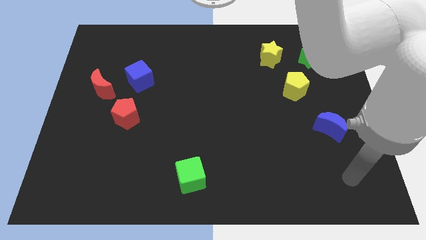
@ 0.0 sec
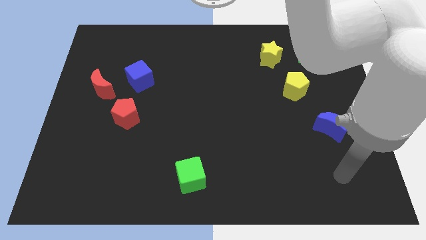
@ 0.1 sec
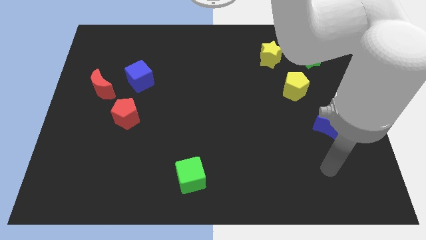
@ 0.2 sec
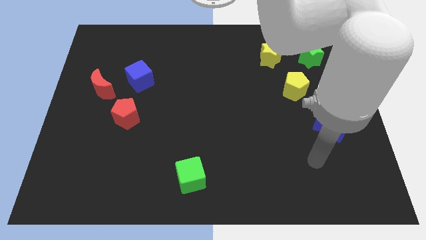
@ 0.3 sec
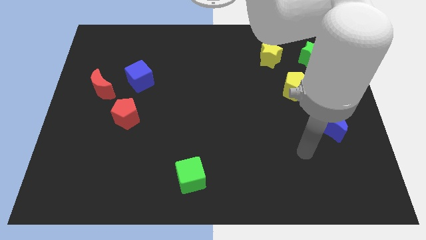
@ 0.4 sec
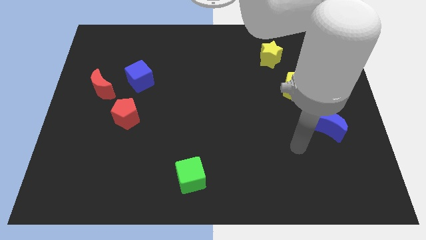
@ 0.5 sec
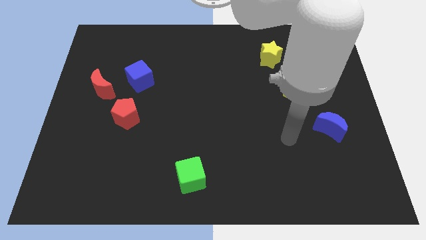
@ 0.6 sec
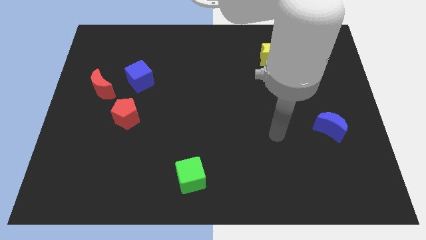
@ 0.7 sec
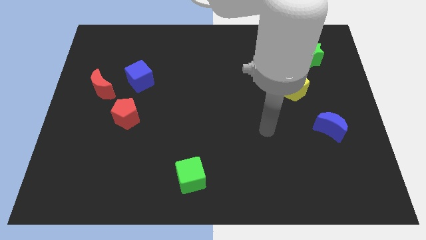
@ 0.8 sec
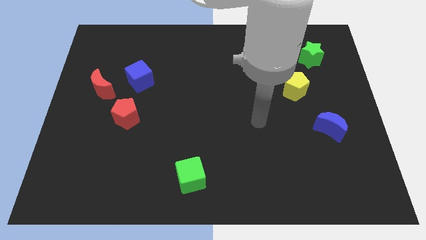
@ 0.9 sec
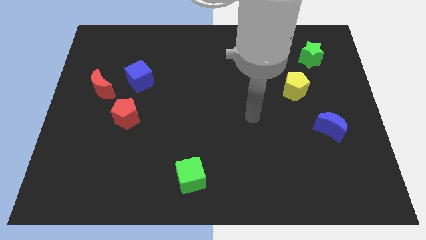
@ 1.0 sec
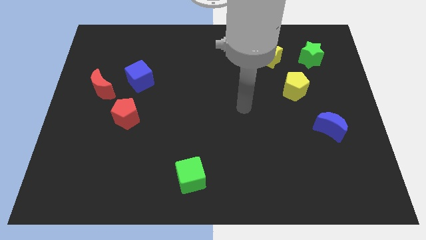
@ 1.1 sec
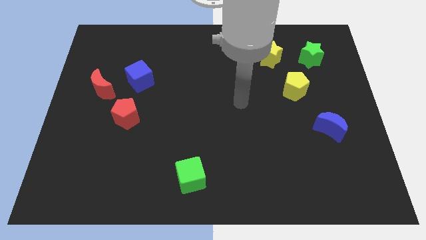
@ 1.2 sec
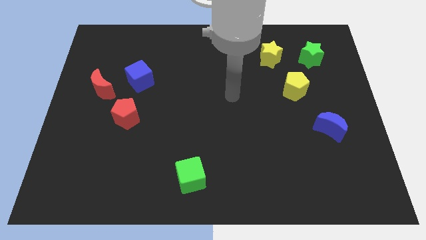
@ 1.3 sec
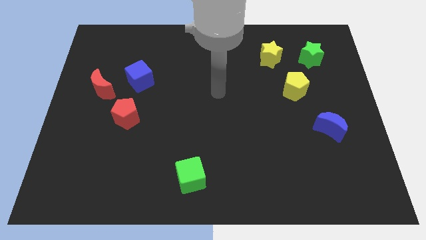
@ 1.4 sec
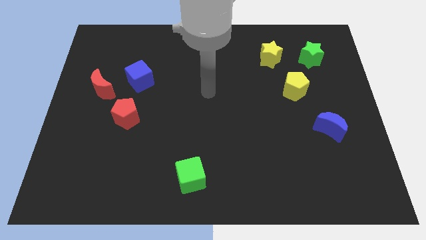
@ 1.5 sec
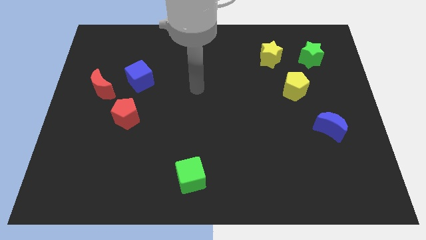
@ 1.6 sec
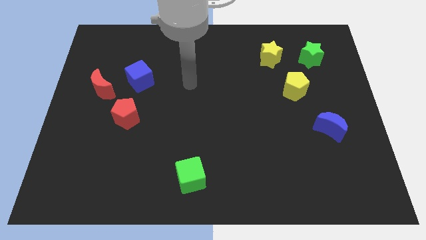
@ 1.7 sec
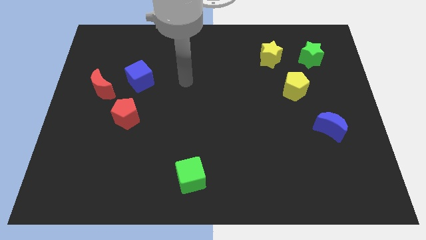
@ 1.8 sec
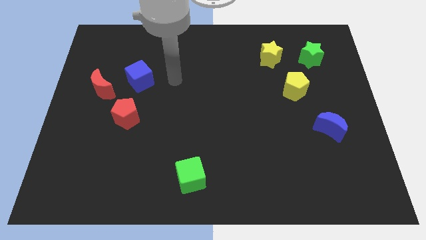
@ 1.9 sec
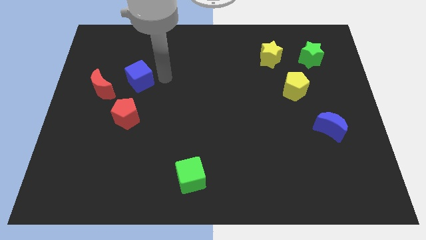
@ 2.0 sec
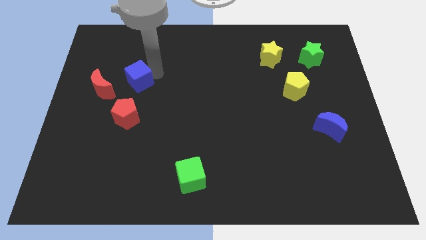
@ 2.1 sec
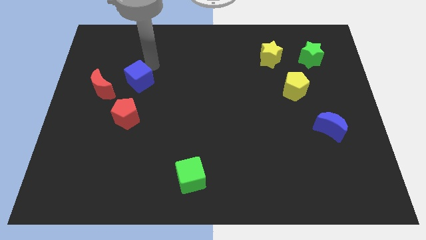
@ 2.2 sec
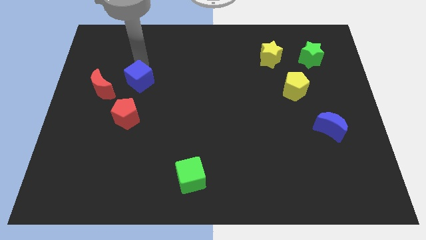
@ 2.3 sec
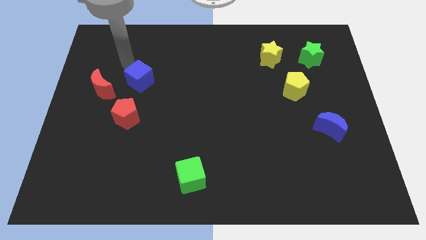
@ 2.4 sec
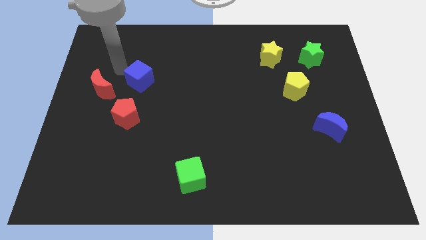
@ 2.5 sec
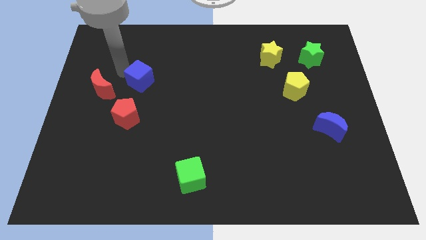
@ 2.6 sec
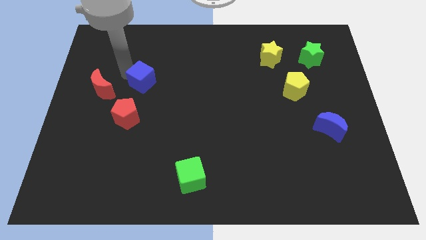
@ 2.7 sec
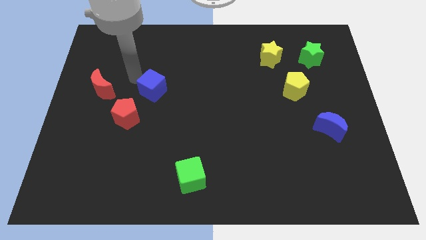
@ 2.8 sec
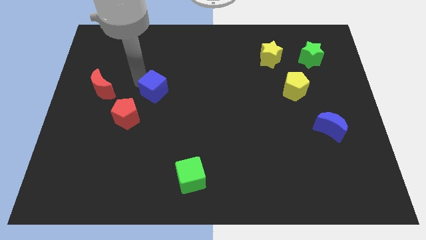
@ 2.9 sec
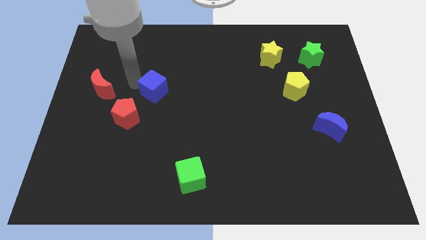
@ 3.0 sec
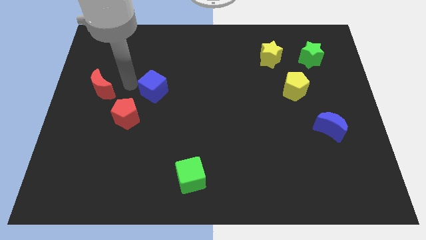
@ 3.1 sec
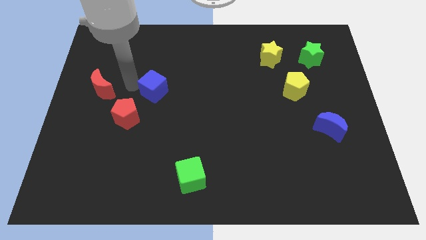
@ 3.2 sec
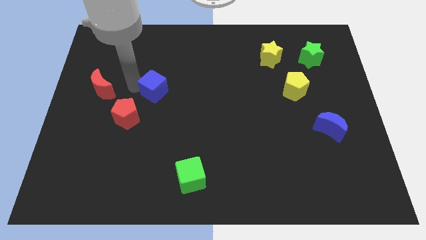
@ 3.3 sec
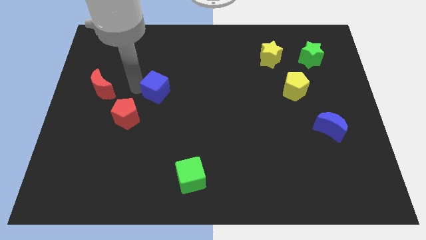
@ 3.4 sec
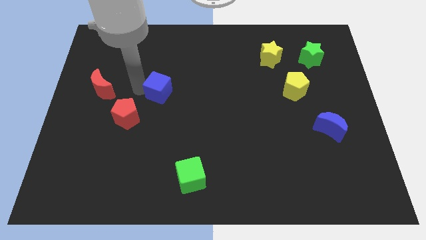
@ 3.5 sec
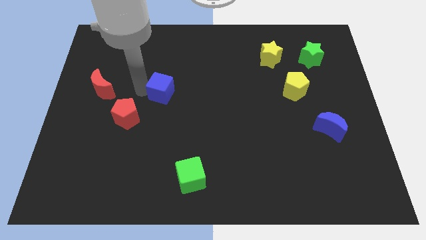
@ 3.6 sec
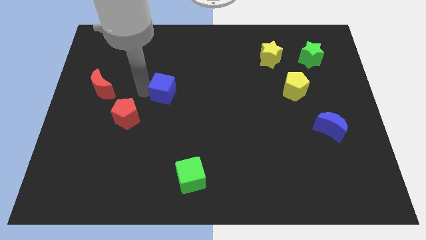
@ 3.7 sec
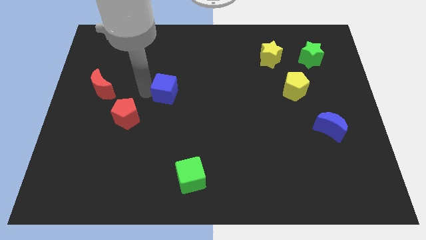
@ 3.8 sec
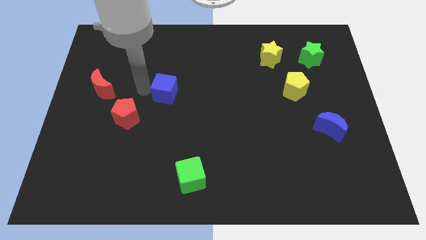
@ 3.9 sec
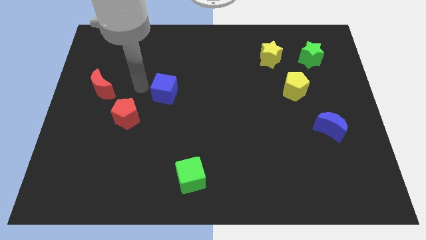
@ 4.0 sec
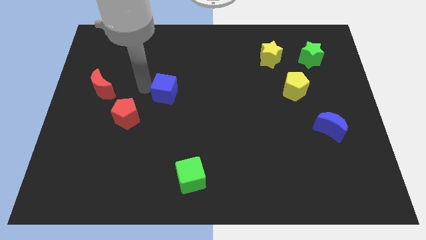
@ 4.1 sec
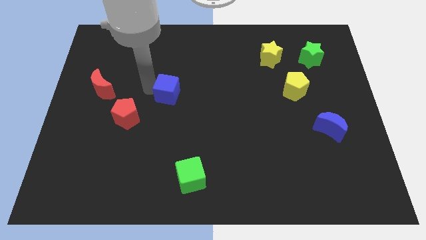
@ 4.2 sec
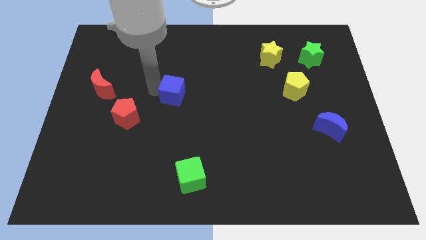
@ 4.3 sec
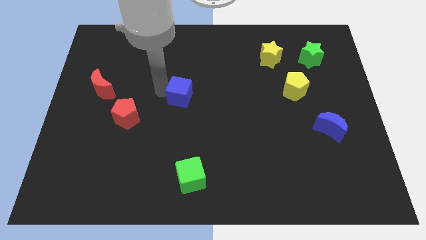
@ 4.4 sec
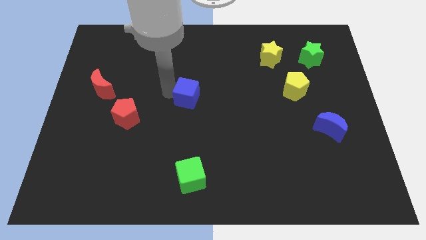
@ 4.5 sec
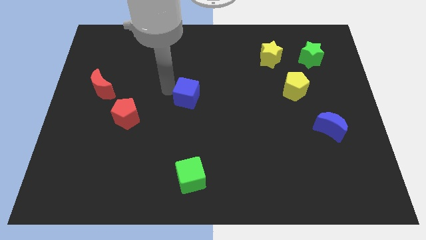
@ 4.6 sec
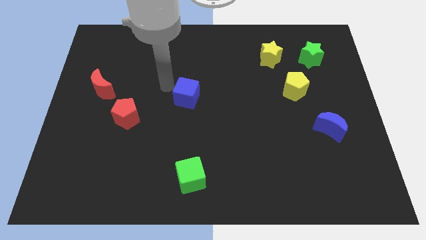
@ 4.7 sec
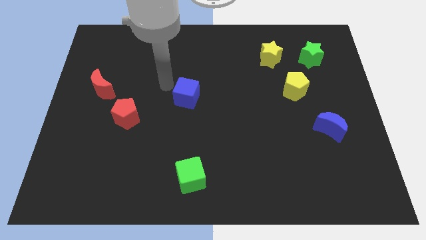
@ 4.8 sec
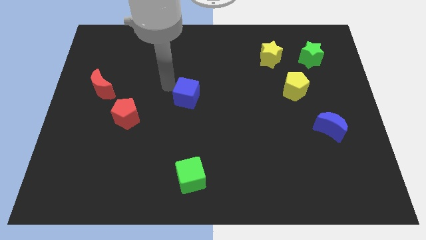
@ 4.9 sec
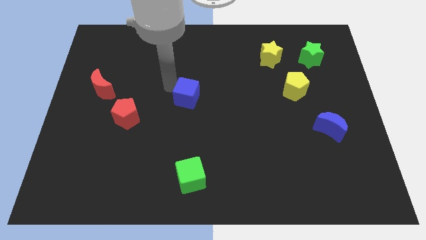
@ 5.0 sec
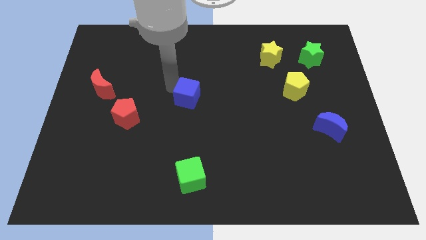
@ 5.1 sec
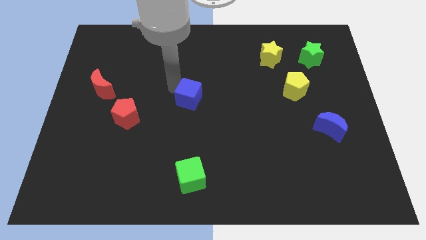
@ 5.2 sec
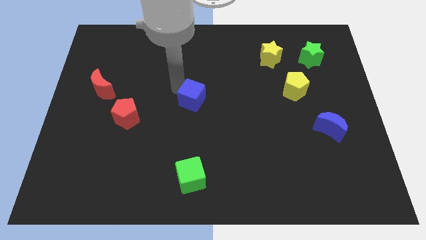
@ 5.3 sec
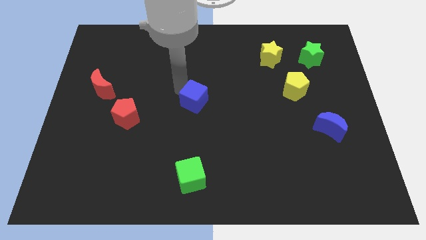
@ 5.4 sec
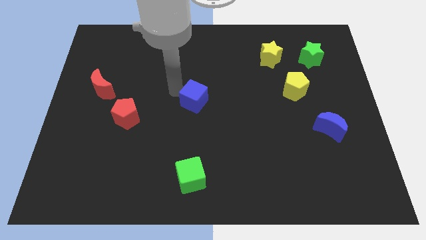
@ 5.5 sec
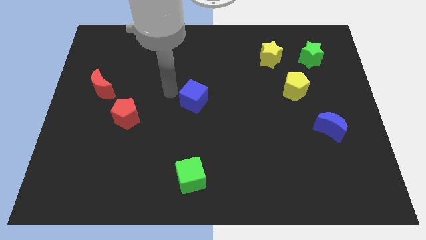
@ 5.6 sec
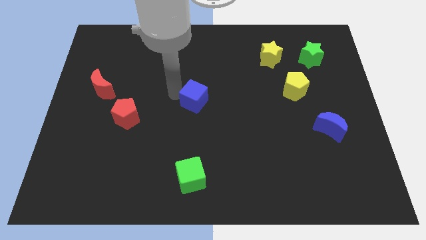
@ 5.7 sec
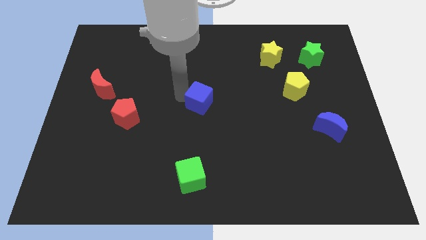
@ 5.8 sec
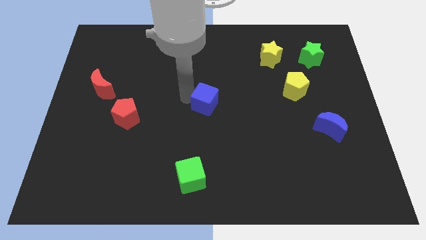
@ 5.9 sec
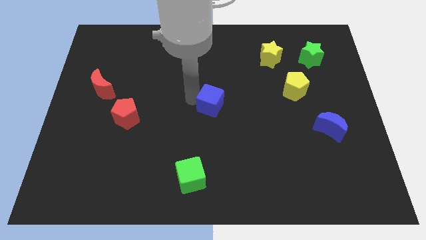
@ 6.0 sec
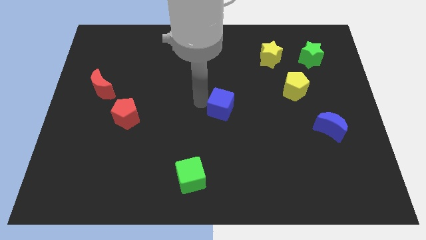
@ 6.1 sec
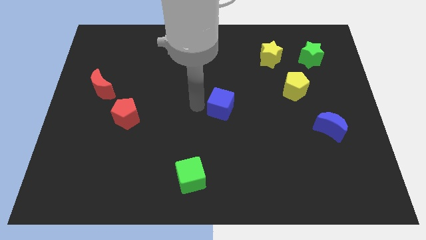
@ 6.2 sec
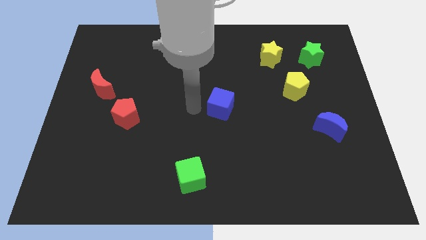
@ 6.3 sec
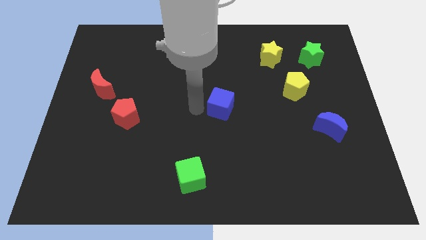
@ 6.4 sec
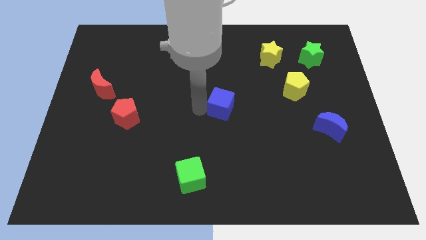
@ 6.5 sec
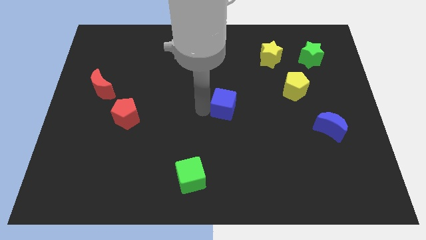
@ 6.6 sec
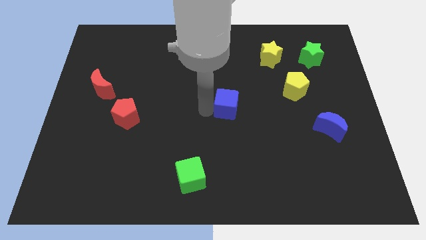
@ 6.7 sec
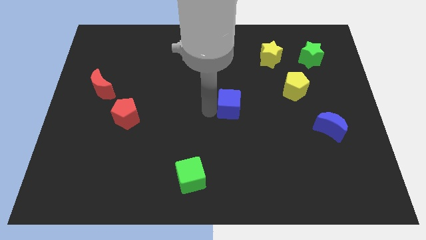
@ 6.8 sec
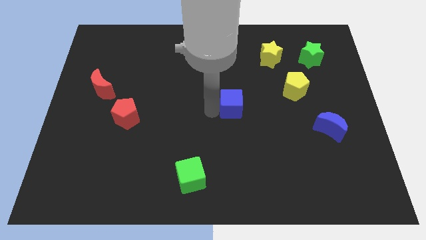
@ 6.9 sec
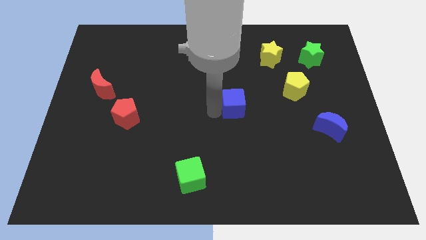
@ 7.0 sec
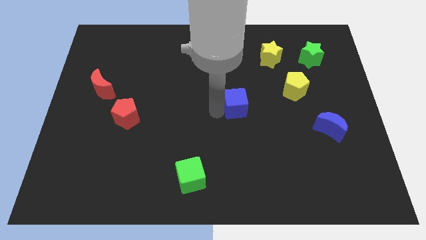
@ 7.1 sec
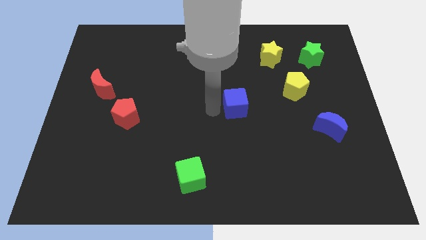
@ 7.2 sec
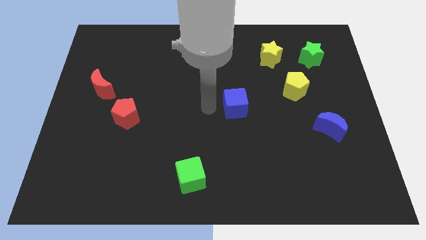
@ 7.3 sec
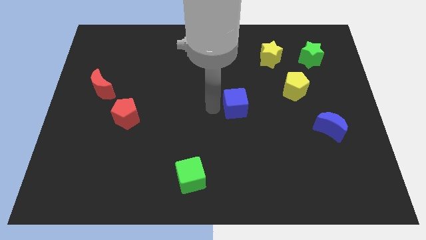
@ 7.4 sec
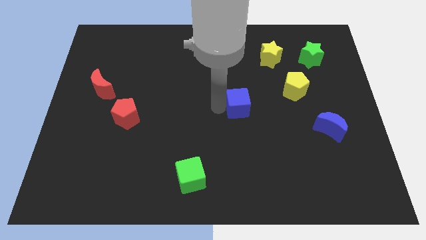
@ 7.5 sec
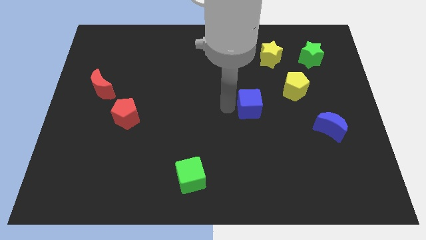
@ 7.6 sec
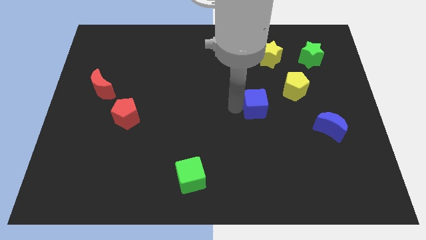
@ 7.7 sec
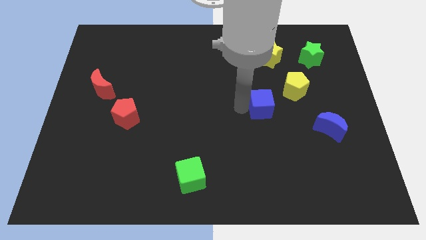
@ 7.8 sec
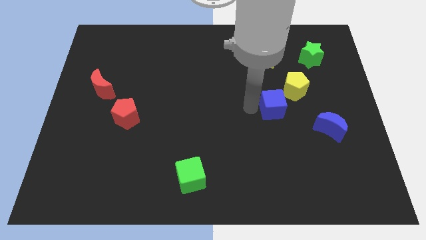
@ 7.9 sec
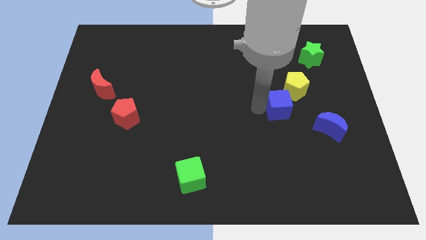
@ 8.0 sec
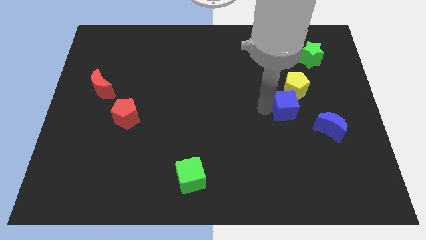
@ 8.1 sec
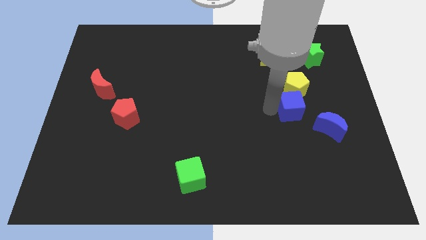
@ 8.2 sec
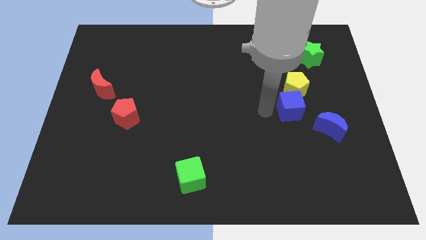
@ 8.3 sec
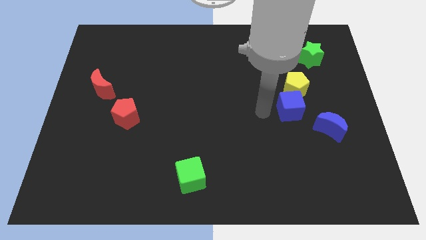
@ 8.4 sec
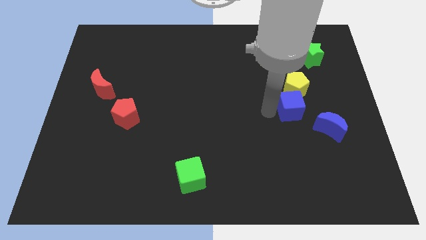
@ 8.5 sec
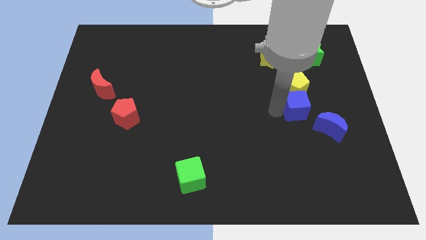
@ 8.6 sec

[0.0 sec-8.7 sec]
slide the blue cube to the bottom right side of the yellow pentagon
